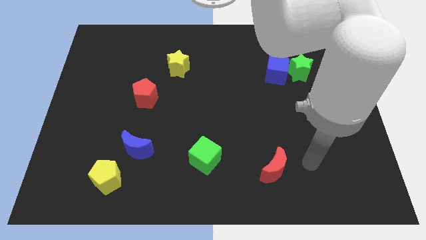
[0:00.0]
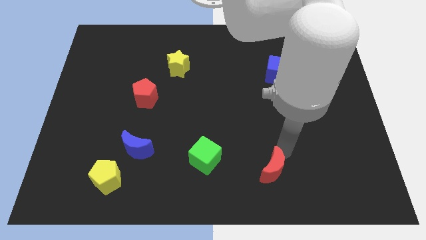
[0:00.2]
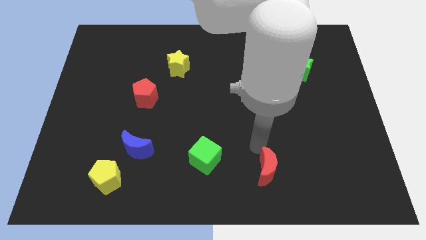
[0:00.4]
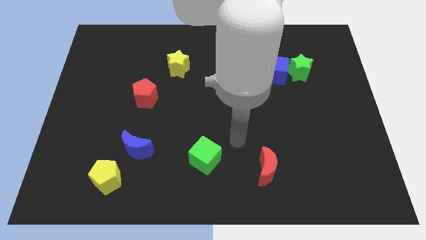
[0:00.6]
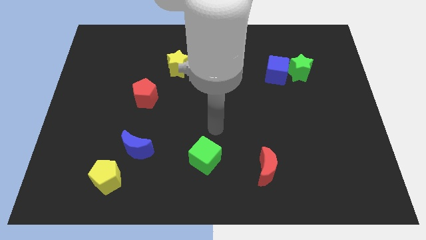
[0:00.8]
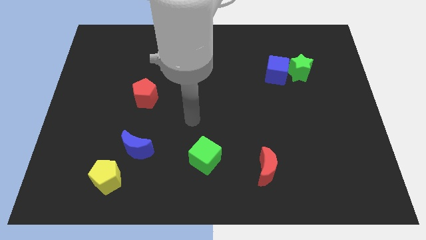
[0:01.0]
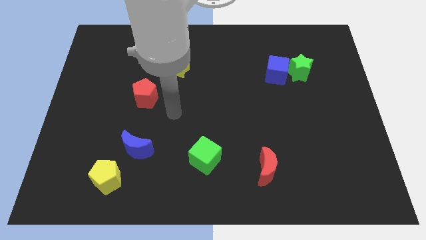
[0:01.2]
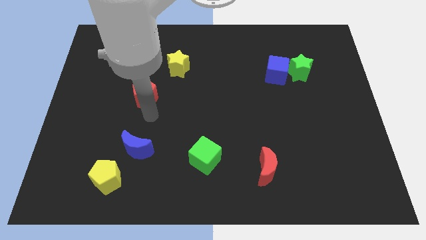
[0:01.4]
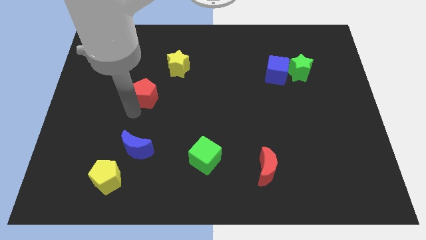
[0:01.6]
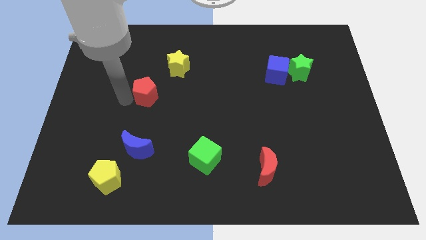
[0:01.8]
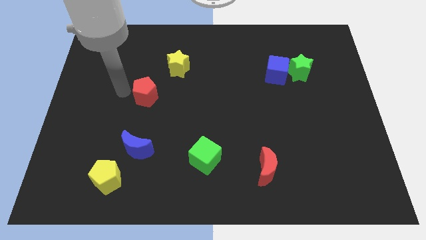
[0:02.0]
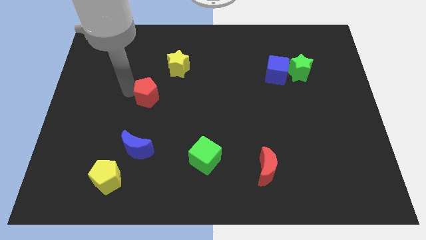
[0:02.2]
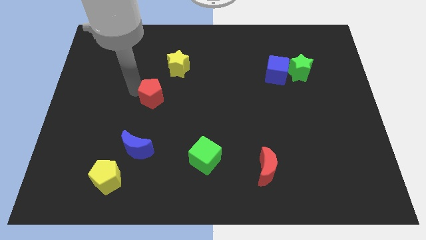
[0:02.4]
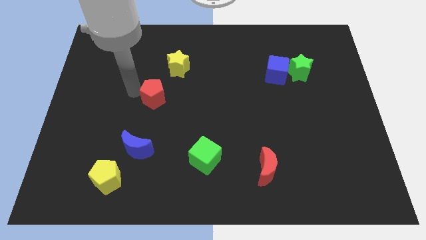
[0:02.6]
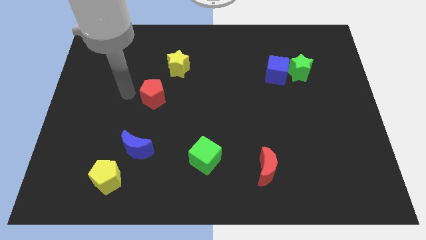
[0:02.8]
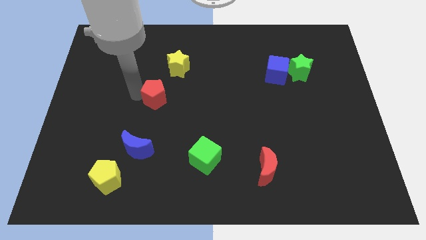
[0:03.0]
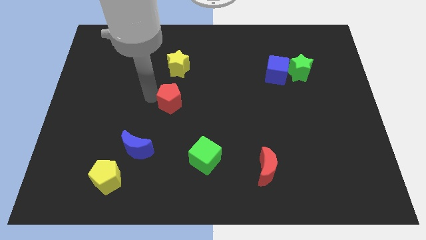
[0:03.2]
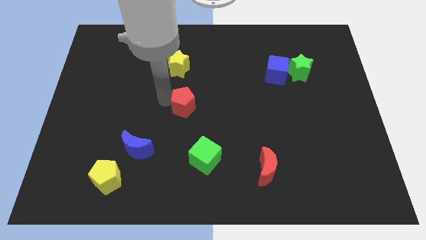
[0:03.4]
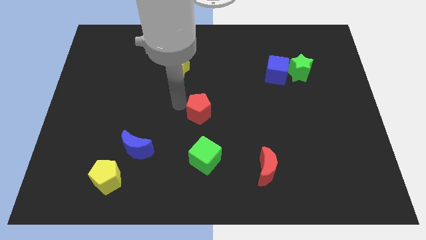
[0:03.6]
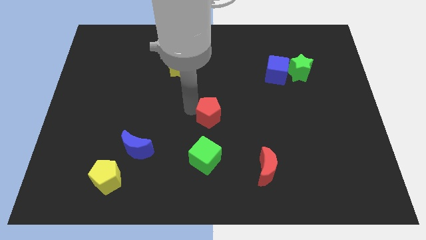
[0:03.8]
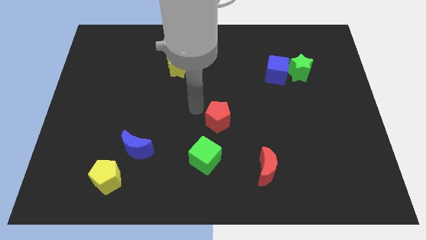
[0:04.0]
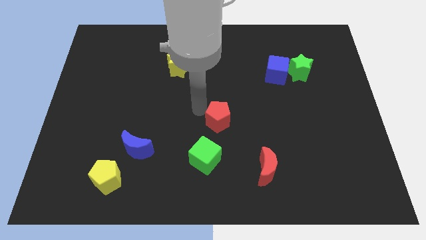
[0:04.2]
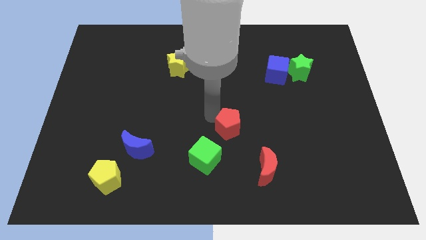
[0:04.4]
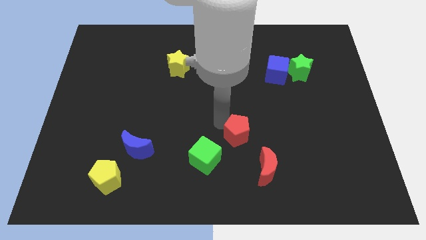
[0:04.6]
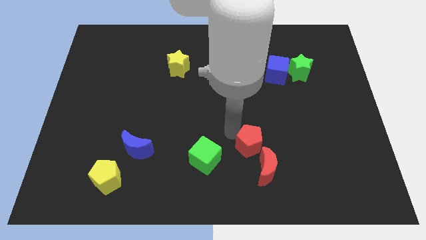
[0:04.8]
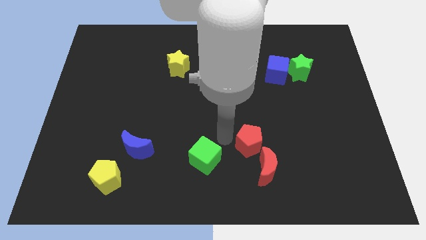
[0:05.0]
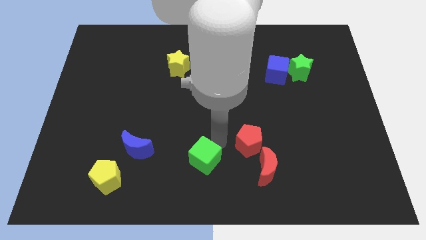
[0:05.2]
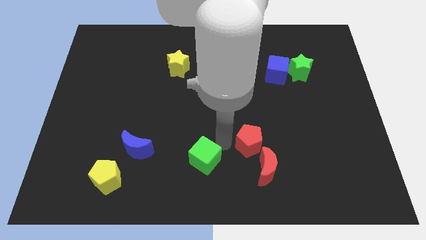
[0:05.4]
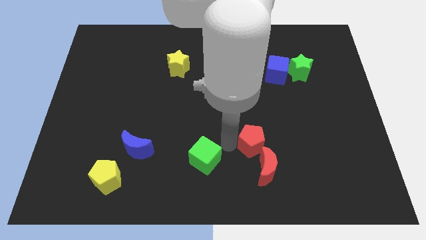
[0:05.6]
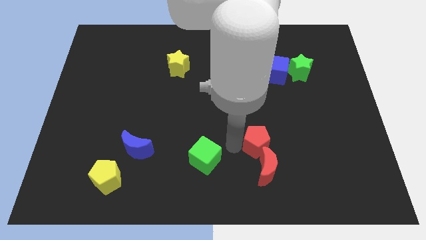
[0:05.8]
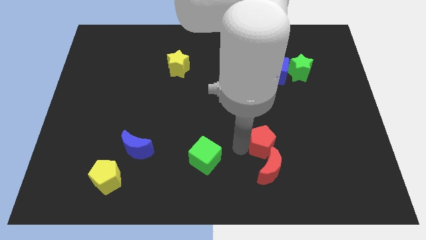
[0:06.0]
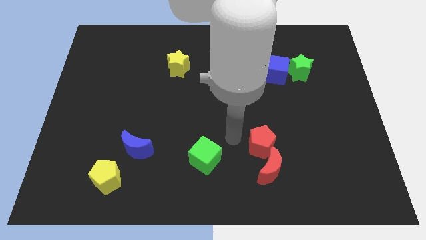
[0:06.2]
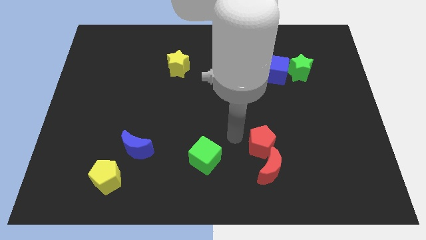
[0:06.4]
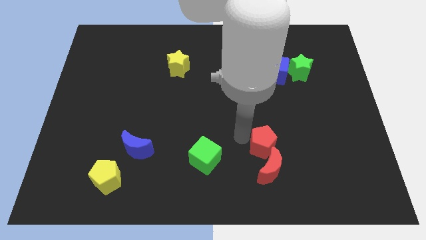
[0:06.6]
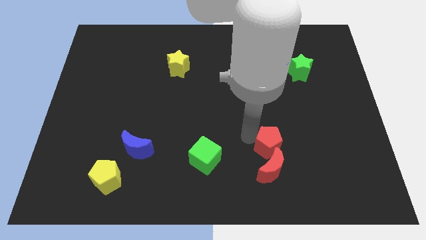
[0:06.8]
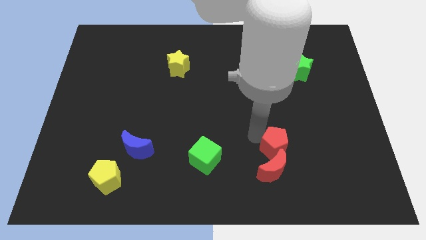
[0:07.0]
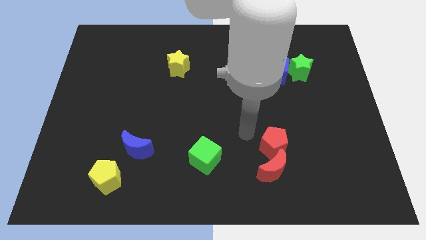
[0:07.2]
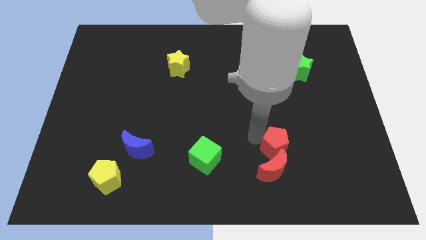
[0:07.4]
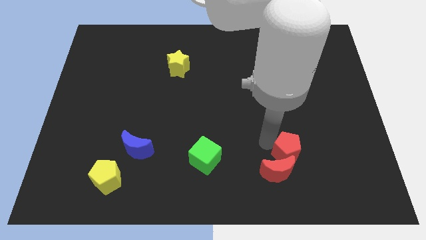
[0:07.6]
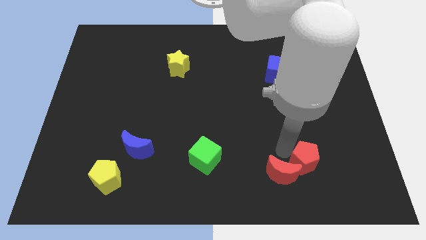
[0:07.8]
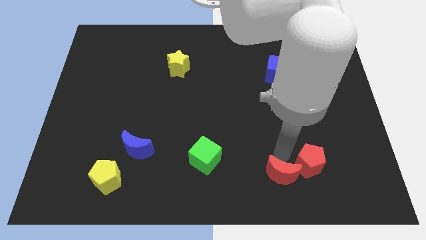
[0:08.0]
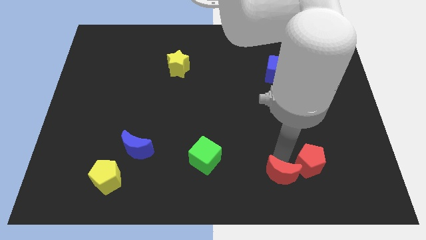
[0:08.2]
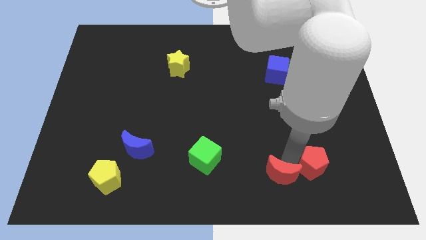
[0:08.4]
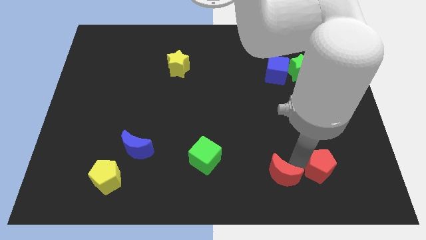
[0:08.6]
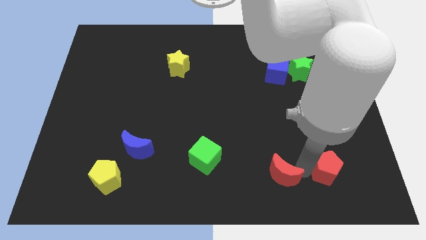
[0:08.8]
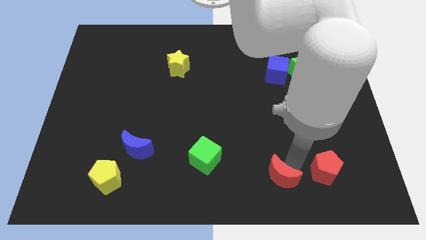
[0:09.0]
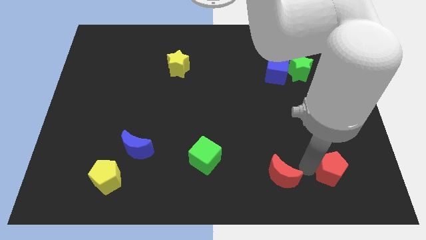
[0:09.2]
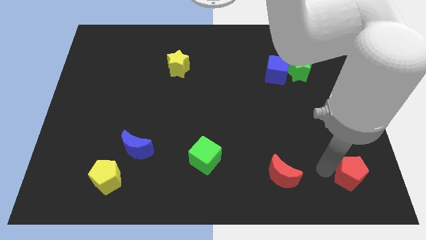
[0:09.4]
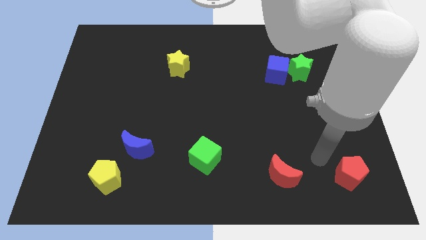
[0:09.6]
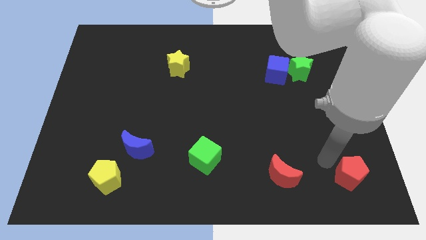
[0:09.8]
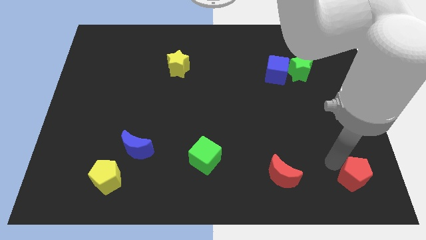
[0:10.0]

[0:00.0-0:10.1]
push the red pentagon to the bottom right of the board

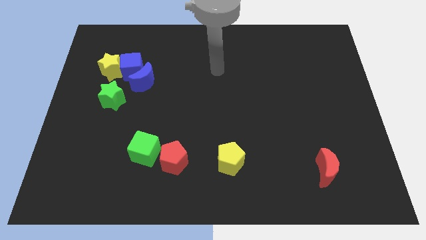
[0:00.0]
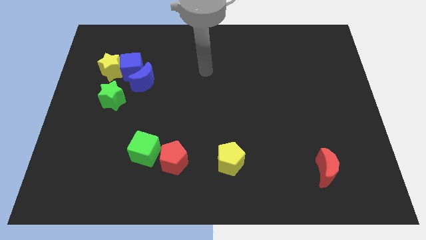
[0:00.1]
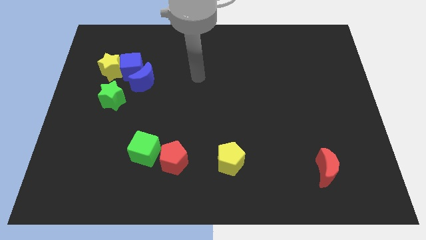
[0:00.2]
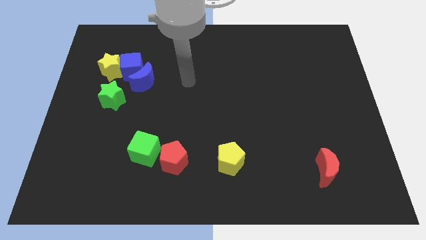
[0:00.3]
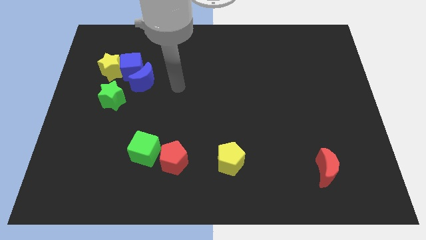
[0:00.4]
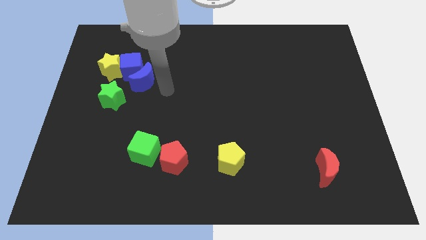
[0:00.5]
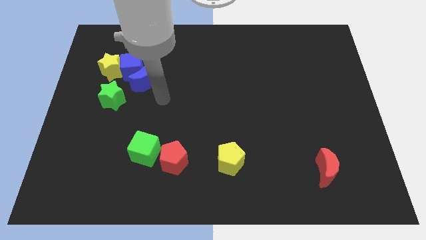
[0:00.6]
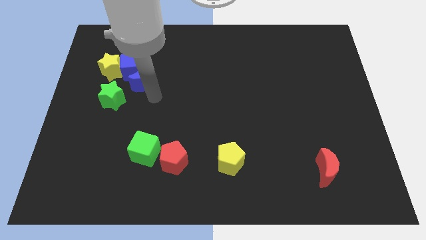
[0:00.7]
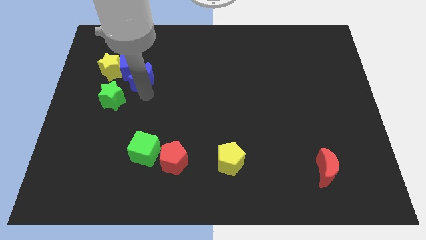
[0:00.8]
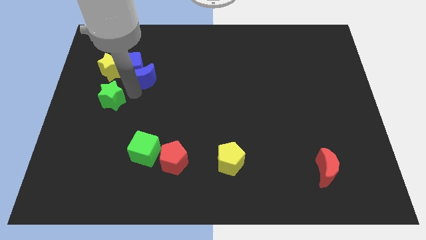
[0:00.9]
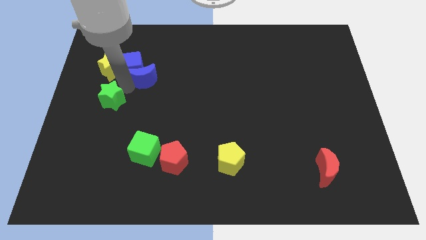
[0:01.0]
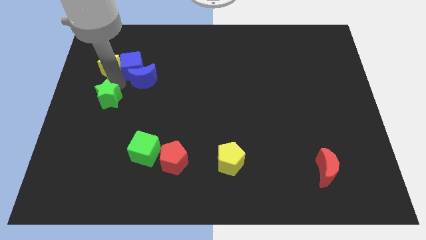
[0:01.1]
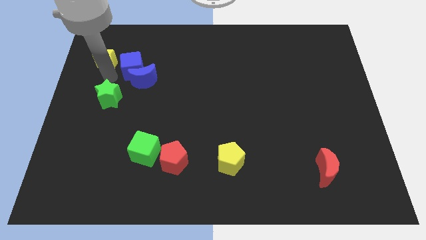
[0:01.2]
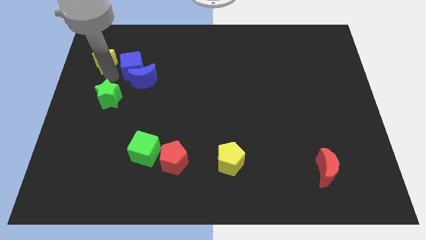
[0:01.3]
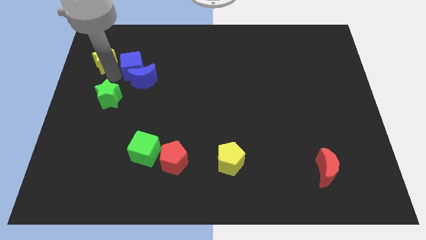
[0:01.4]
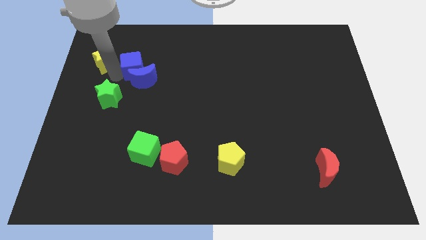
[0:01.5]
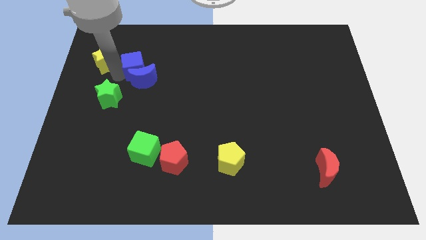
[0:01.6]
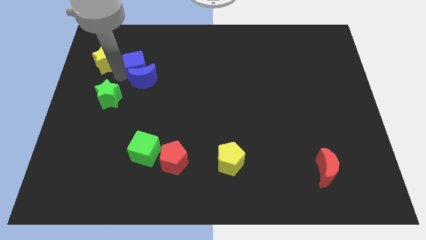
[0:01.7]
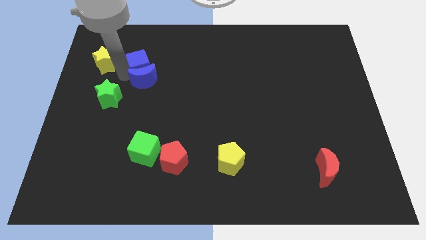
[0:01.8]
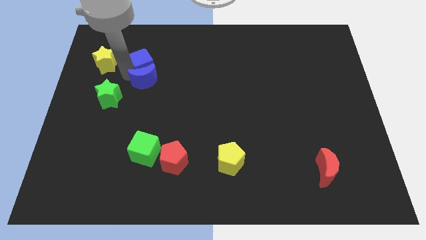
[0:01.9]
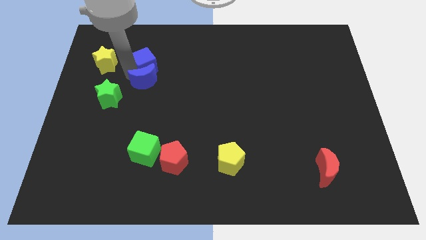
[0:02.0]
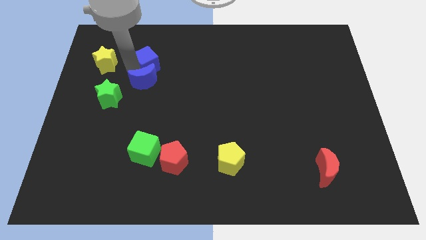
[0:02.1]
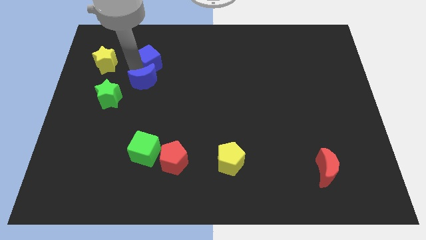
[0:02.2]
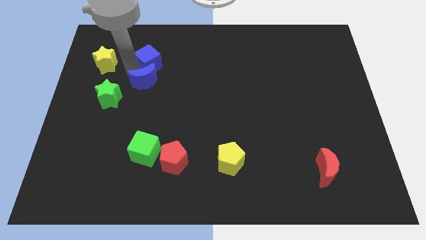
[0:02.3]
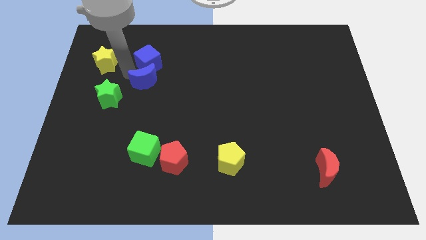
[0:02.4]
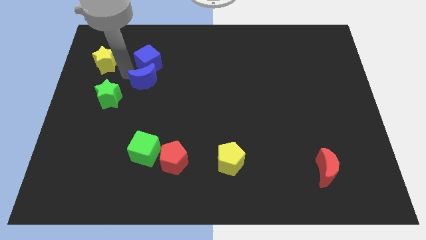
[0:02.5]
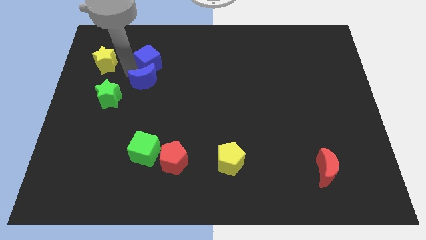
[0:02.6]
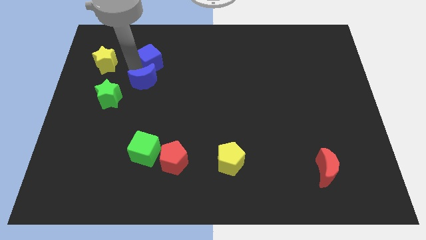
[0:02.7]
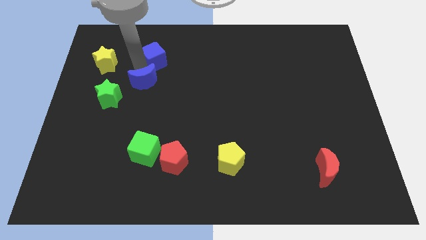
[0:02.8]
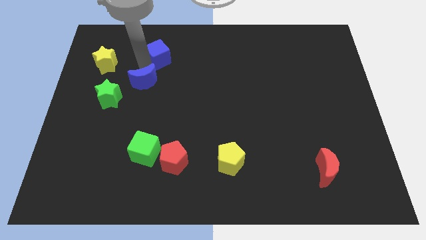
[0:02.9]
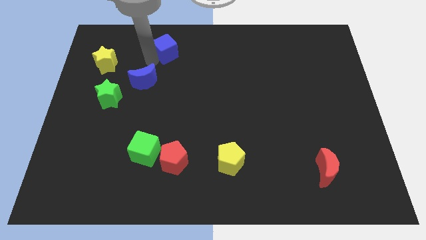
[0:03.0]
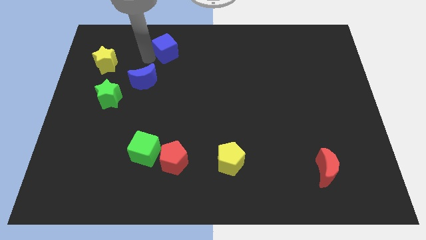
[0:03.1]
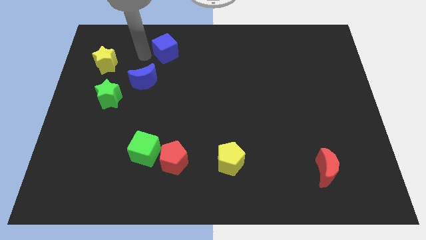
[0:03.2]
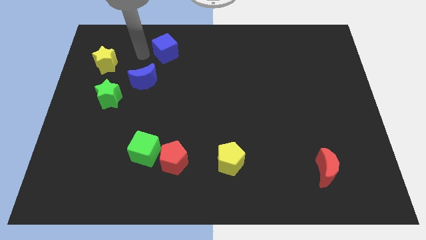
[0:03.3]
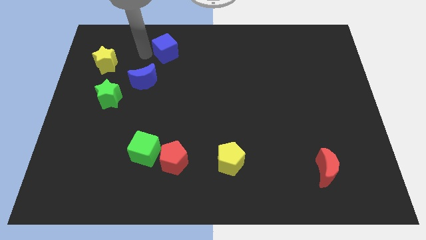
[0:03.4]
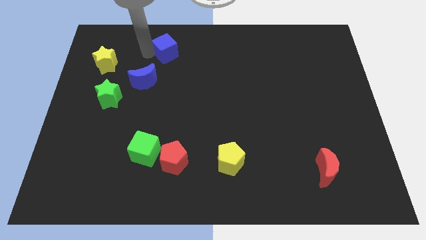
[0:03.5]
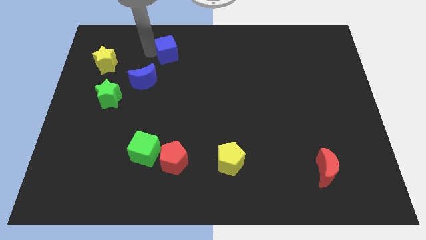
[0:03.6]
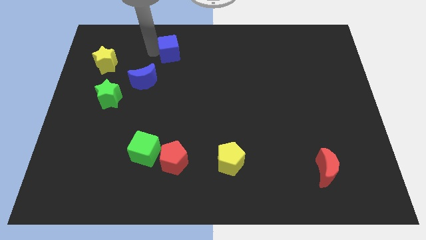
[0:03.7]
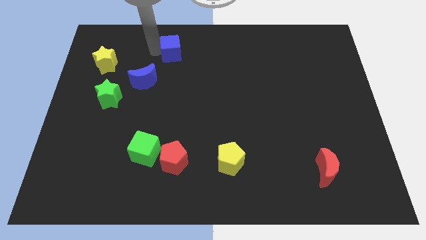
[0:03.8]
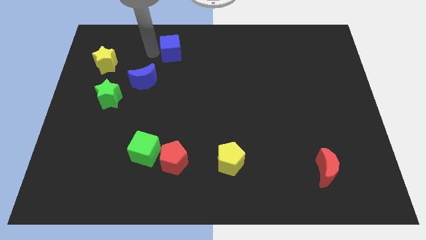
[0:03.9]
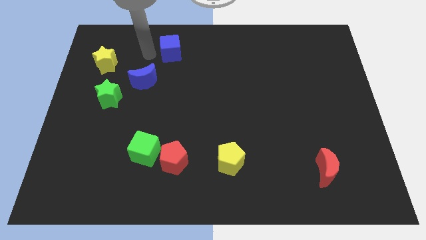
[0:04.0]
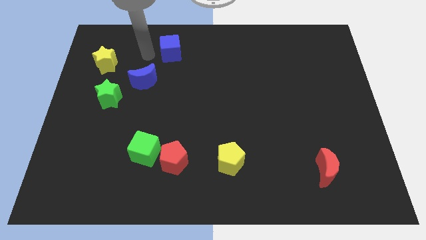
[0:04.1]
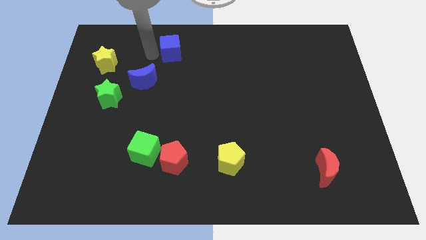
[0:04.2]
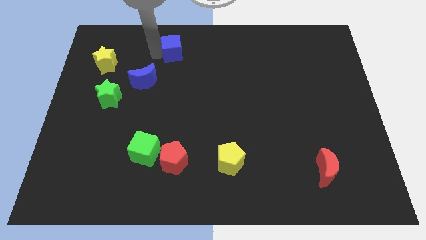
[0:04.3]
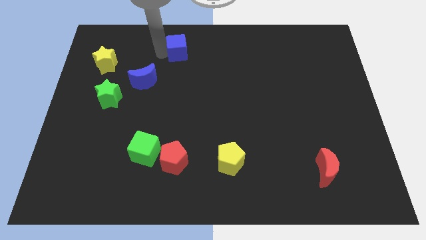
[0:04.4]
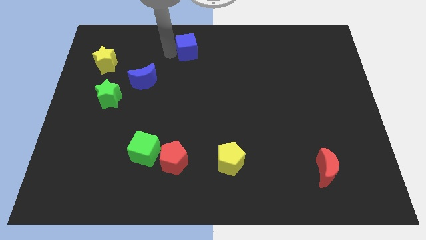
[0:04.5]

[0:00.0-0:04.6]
move the blue cube to the top side
